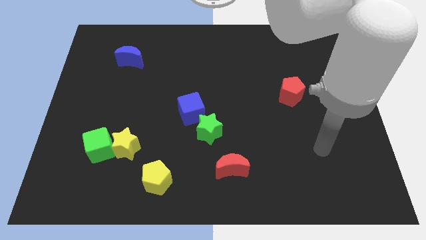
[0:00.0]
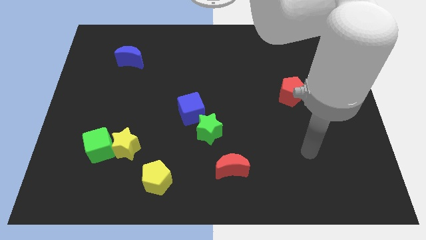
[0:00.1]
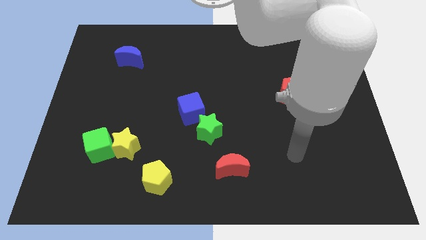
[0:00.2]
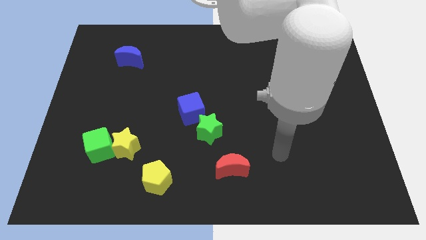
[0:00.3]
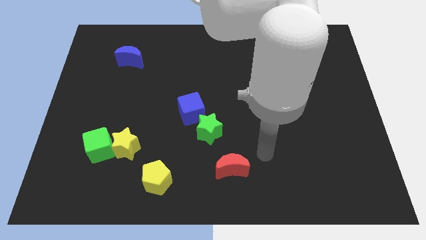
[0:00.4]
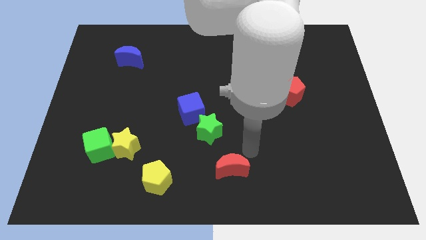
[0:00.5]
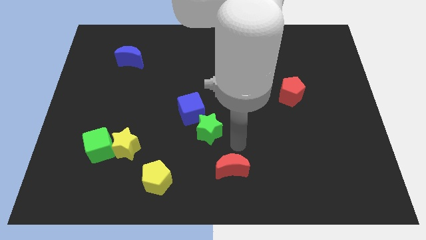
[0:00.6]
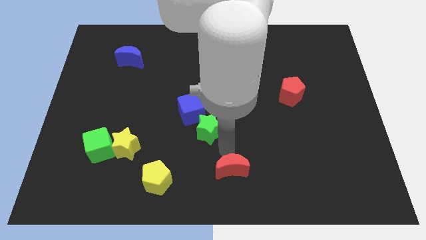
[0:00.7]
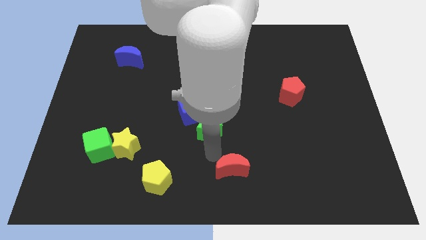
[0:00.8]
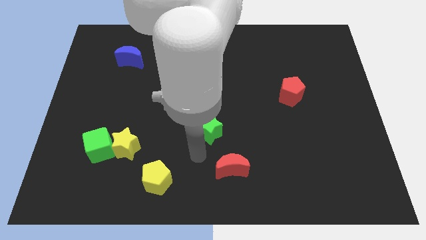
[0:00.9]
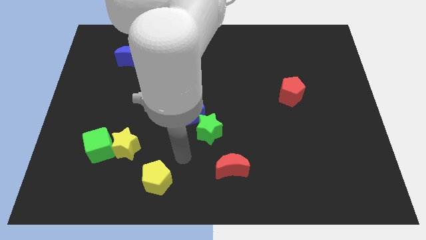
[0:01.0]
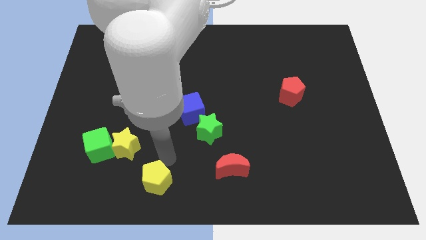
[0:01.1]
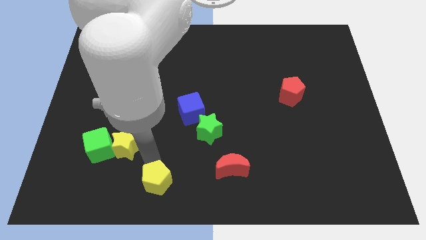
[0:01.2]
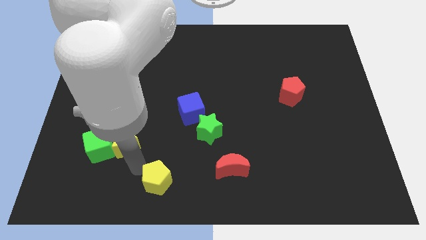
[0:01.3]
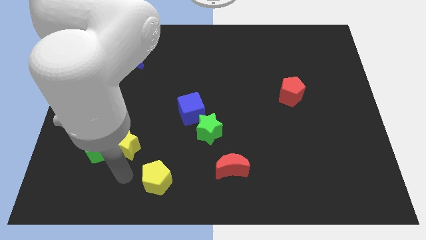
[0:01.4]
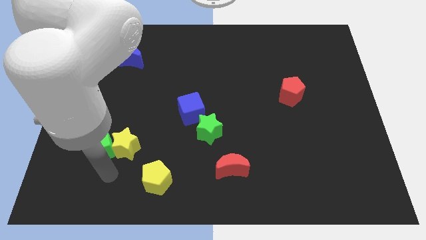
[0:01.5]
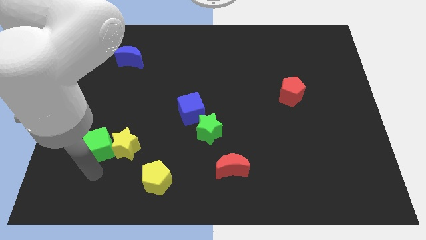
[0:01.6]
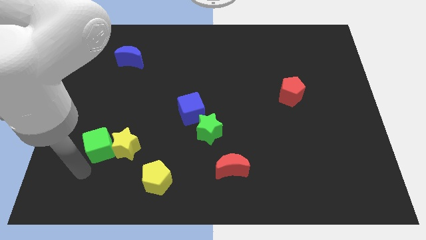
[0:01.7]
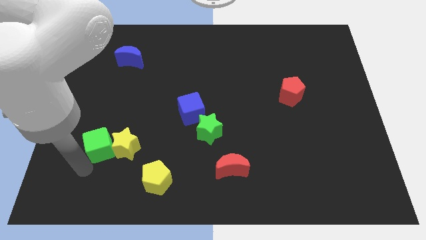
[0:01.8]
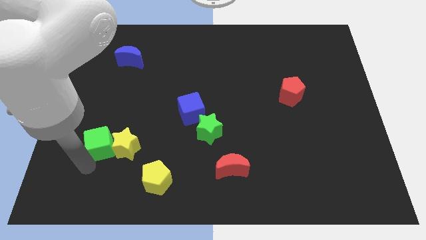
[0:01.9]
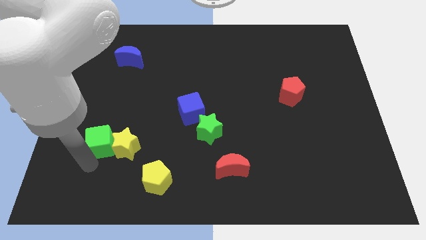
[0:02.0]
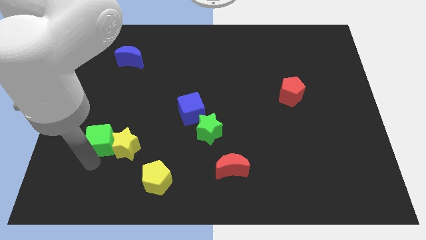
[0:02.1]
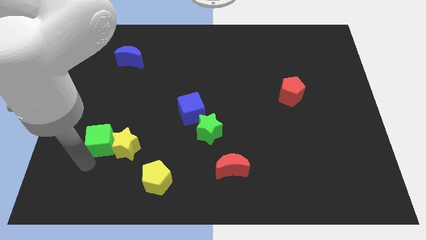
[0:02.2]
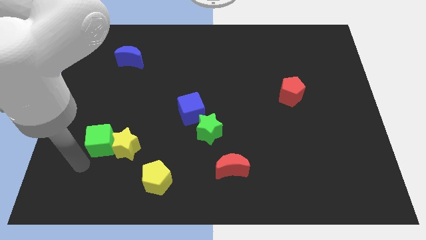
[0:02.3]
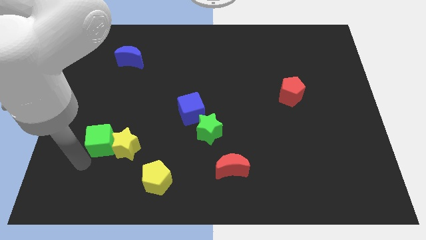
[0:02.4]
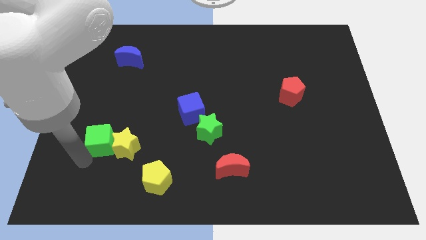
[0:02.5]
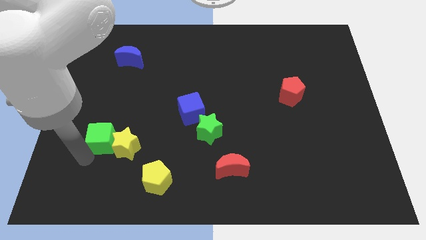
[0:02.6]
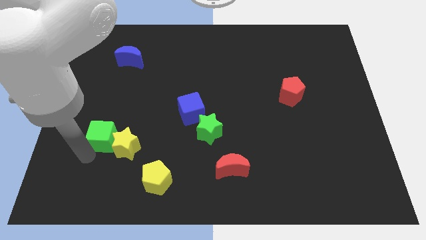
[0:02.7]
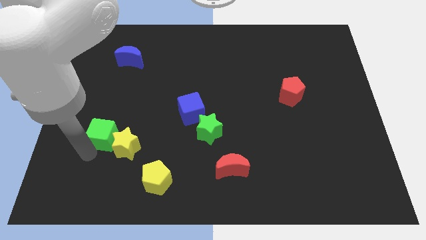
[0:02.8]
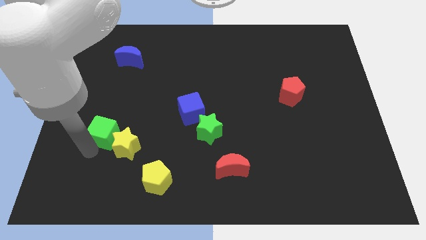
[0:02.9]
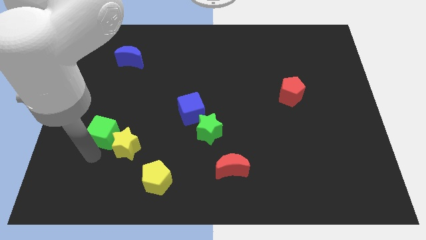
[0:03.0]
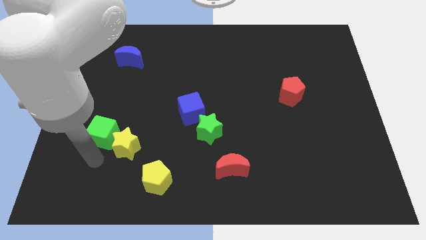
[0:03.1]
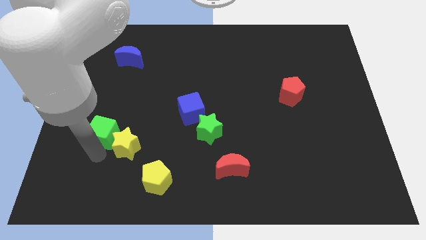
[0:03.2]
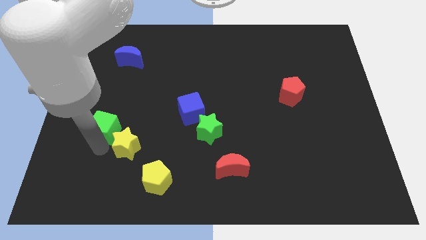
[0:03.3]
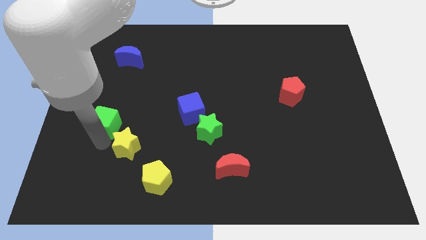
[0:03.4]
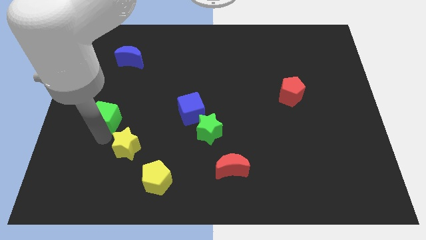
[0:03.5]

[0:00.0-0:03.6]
move the green cube a little up

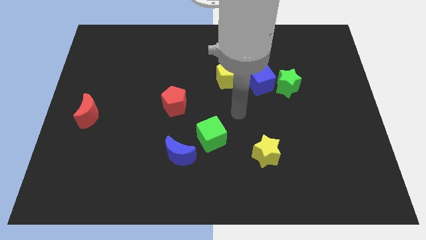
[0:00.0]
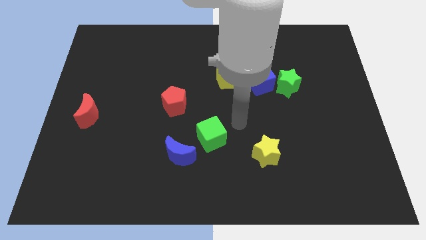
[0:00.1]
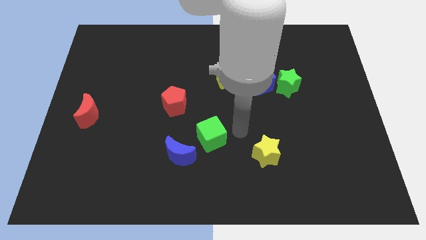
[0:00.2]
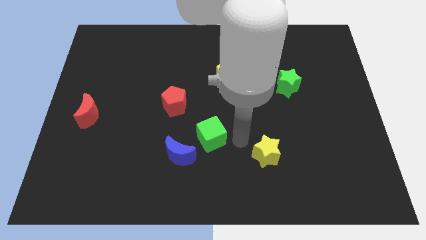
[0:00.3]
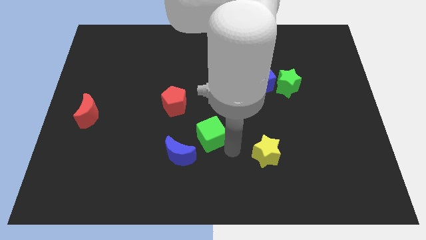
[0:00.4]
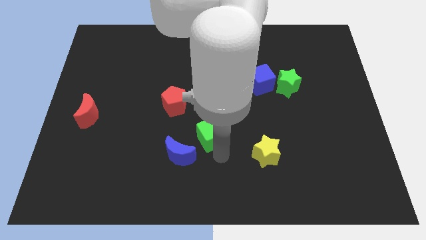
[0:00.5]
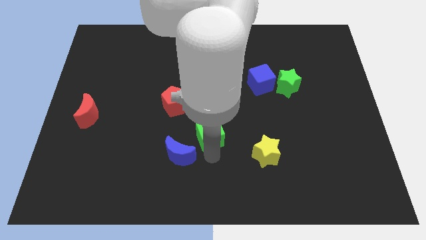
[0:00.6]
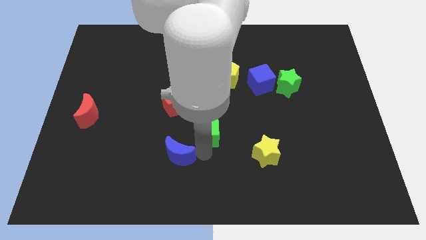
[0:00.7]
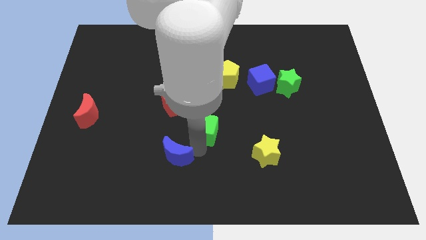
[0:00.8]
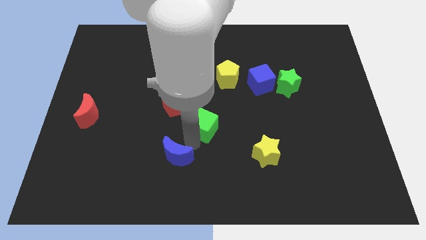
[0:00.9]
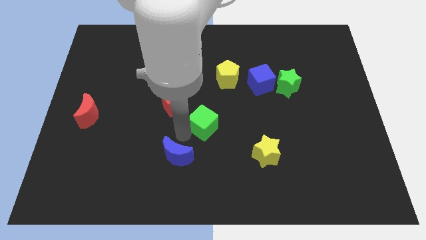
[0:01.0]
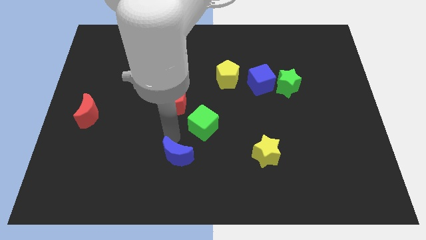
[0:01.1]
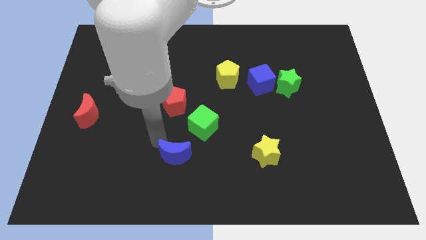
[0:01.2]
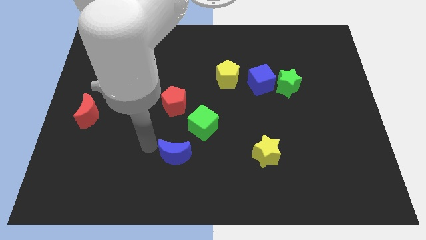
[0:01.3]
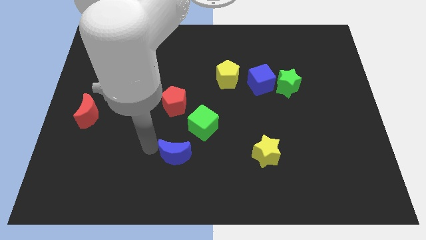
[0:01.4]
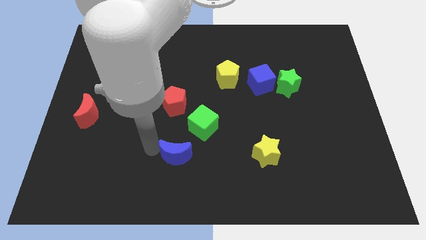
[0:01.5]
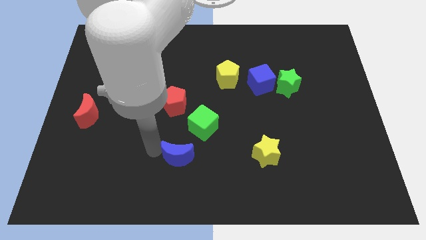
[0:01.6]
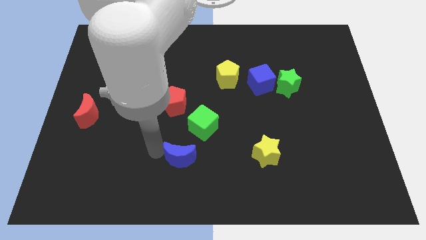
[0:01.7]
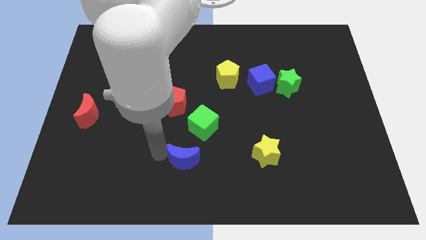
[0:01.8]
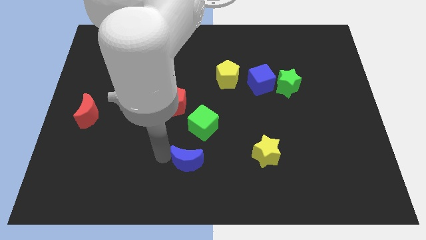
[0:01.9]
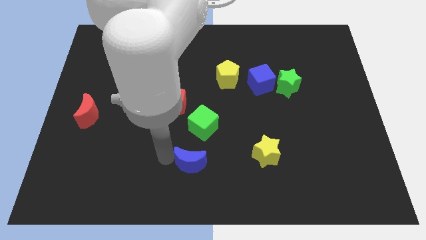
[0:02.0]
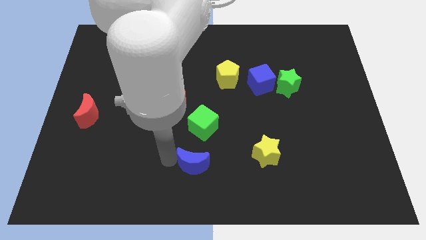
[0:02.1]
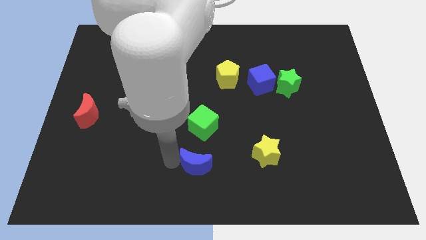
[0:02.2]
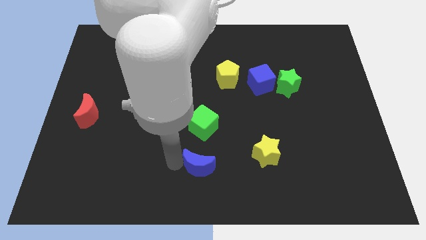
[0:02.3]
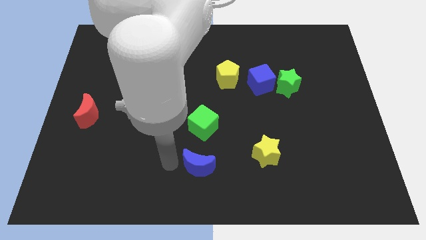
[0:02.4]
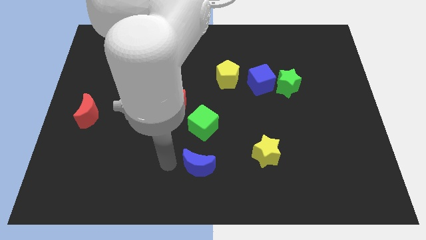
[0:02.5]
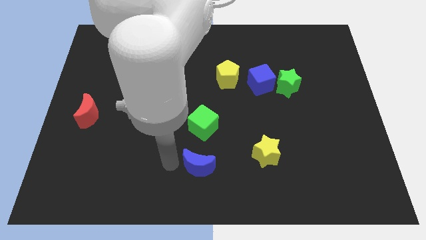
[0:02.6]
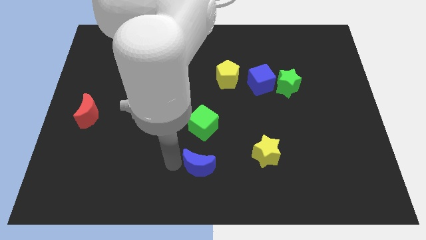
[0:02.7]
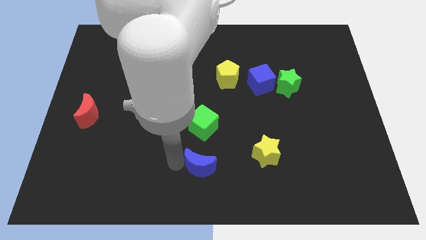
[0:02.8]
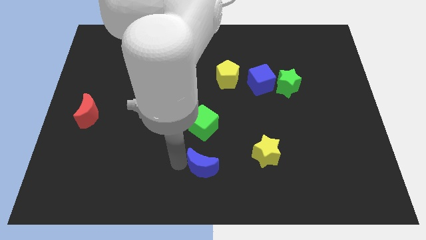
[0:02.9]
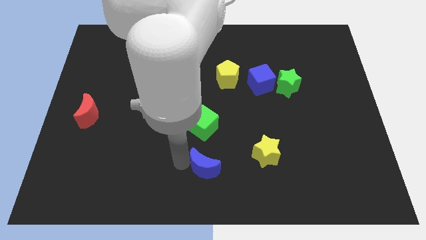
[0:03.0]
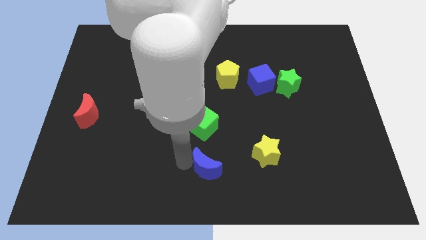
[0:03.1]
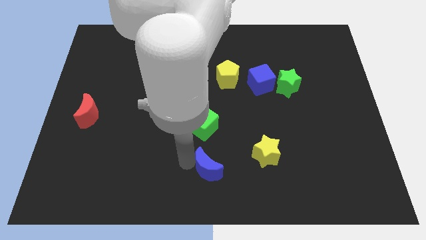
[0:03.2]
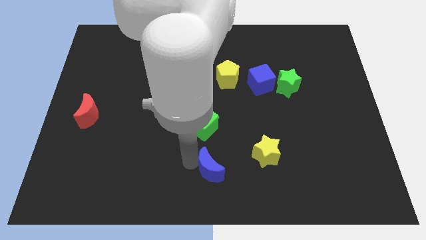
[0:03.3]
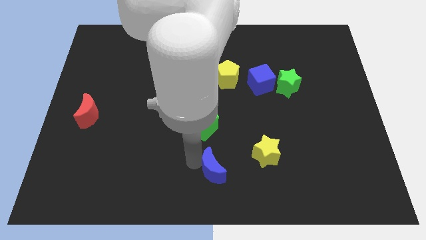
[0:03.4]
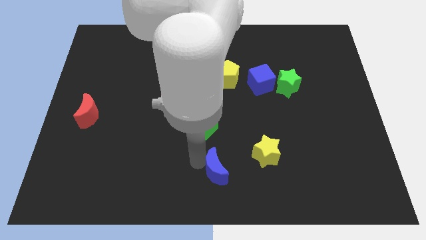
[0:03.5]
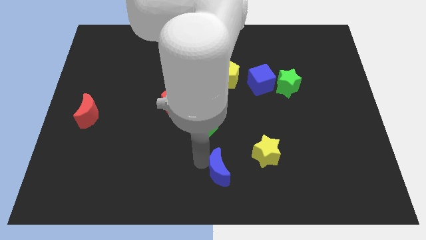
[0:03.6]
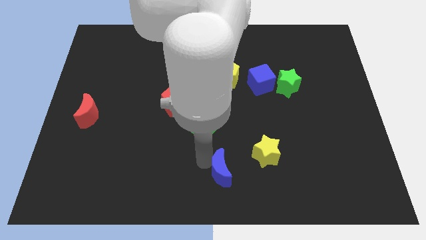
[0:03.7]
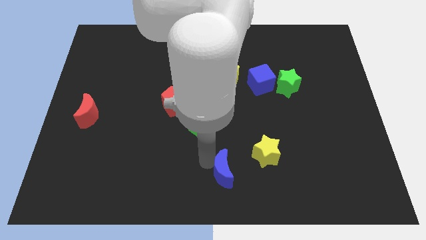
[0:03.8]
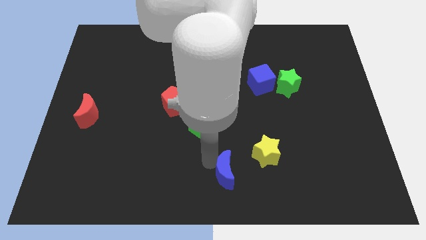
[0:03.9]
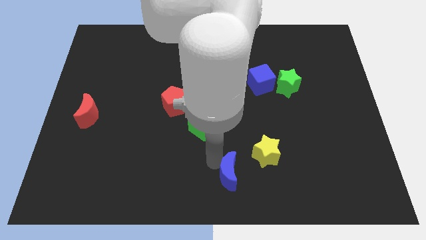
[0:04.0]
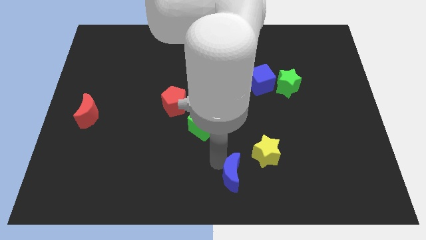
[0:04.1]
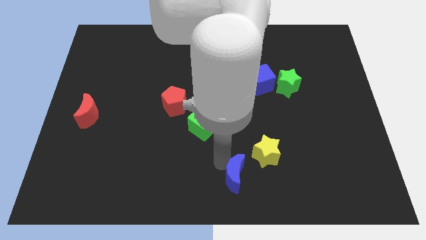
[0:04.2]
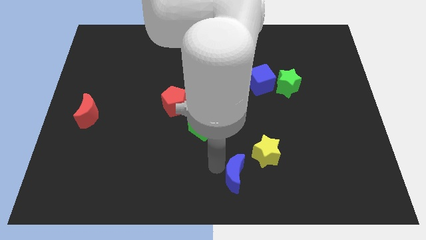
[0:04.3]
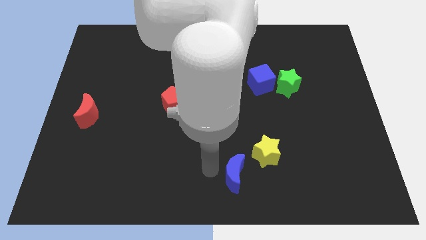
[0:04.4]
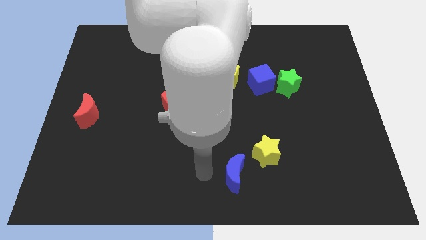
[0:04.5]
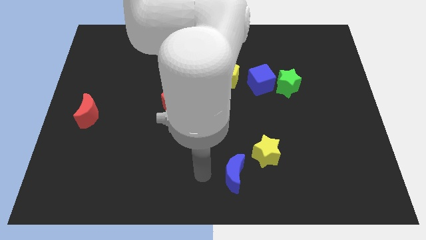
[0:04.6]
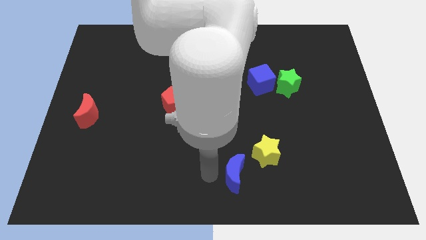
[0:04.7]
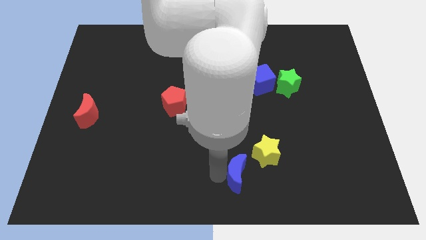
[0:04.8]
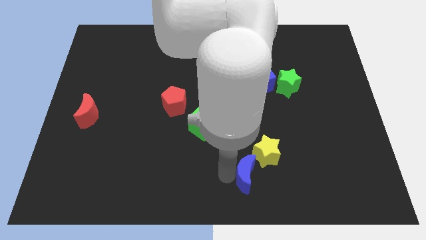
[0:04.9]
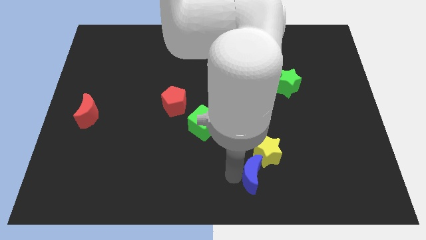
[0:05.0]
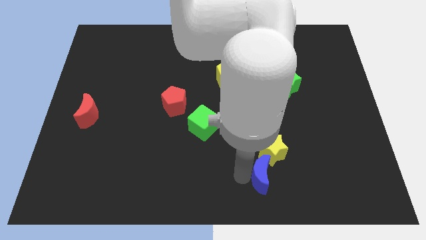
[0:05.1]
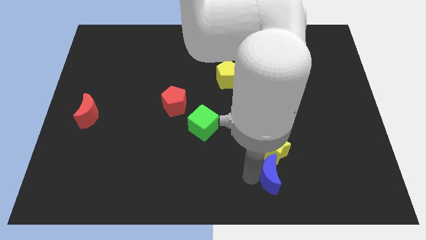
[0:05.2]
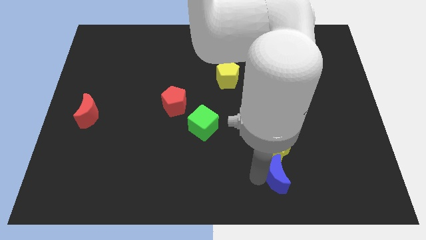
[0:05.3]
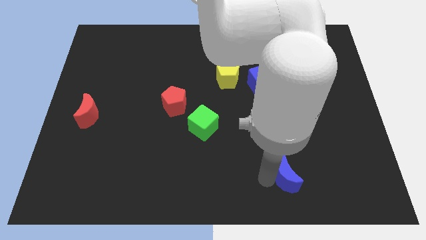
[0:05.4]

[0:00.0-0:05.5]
move the blue moon right
